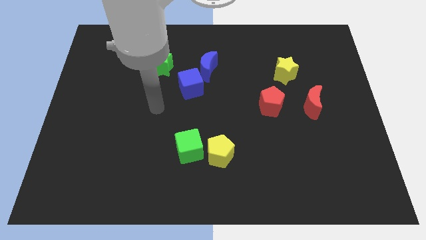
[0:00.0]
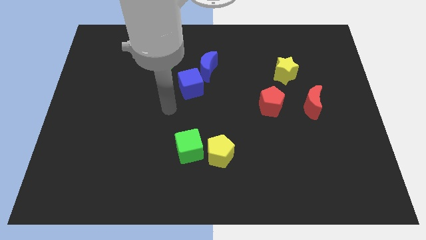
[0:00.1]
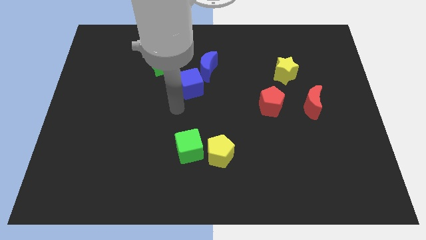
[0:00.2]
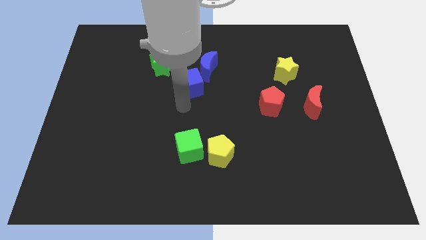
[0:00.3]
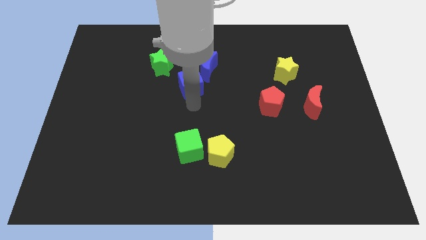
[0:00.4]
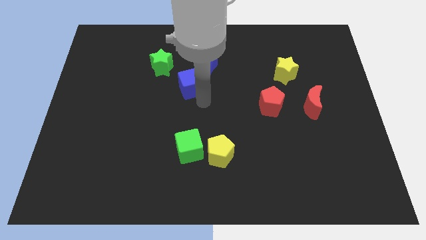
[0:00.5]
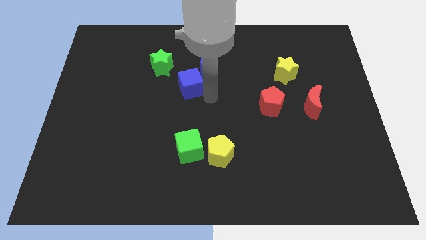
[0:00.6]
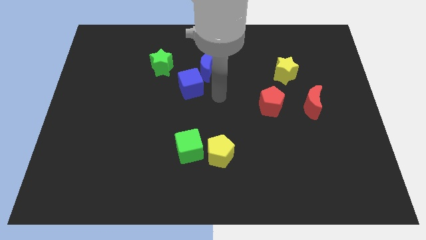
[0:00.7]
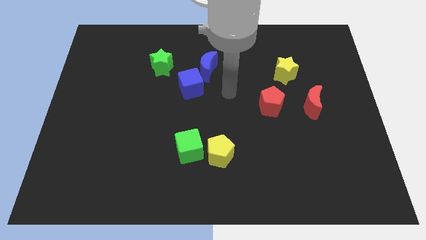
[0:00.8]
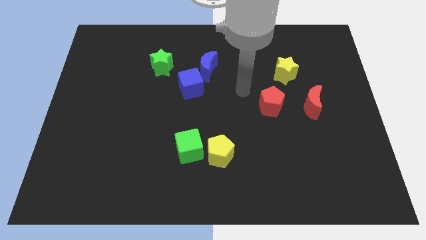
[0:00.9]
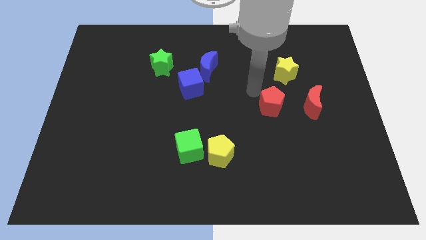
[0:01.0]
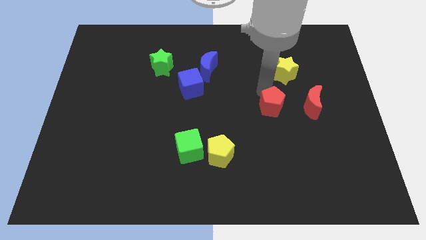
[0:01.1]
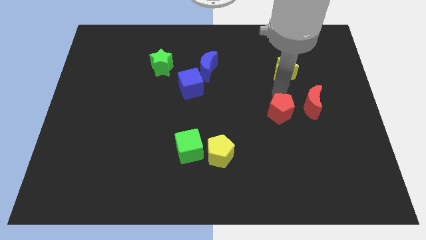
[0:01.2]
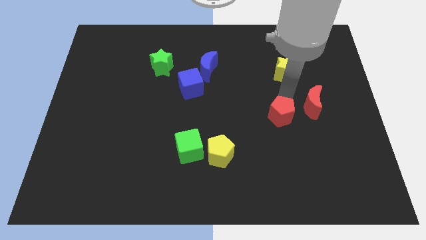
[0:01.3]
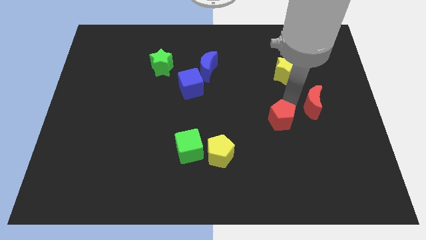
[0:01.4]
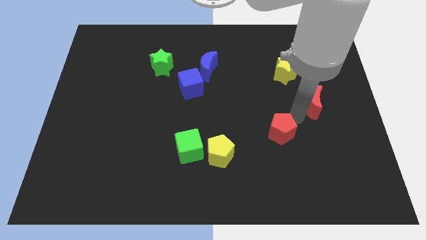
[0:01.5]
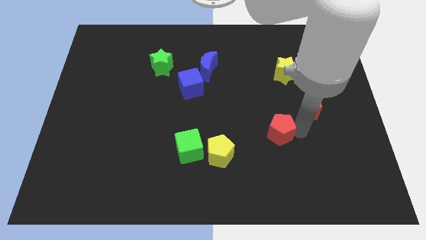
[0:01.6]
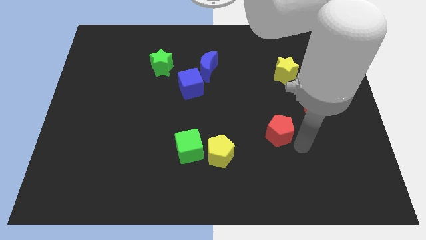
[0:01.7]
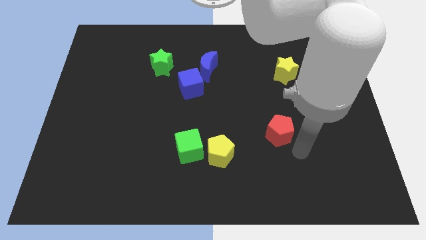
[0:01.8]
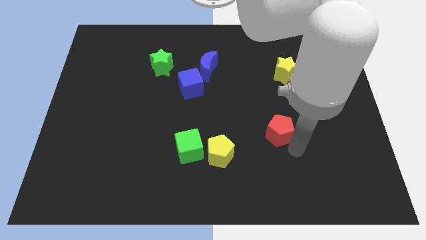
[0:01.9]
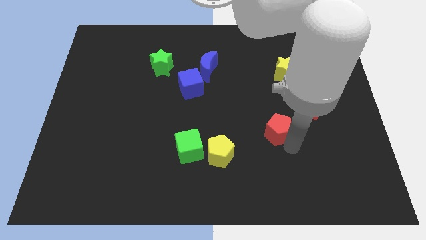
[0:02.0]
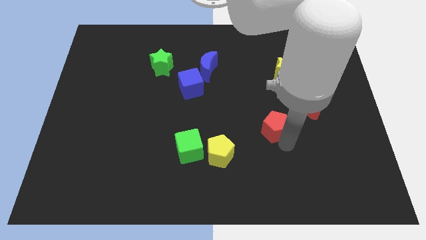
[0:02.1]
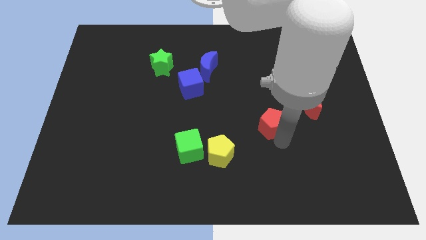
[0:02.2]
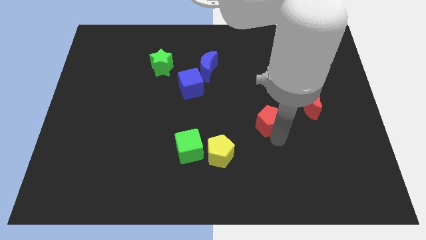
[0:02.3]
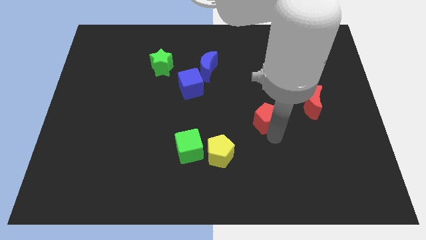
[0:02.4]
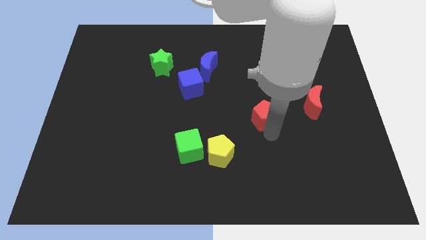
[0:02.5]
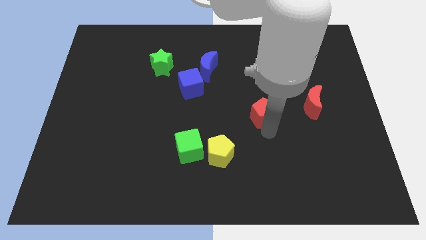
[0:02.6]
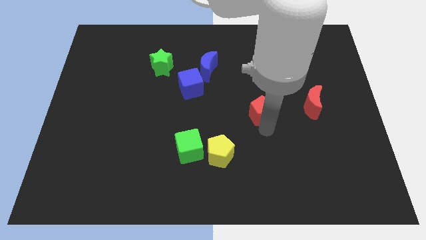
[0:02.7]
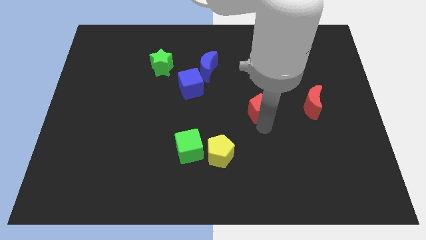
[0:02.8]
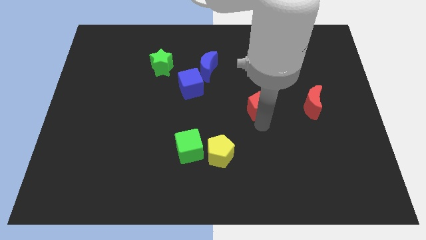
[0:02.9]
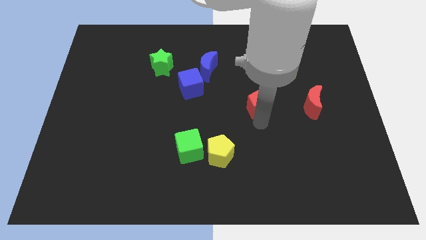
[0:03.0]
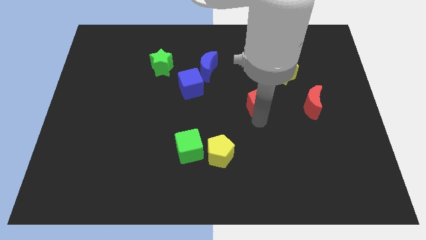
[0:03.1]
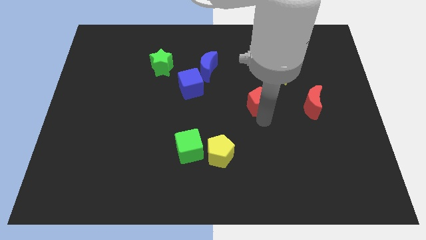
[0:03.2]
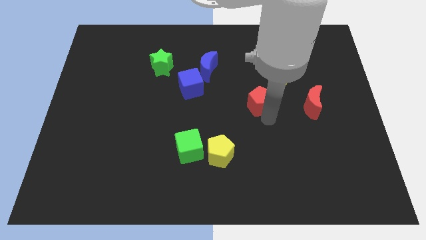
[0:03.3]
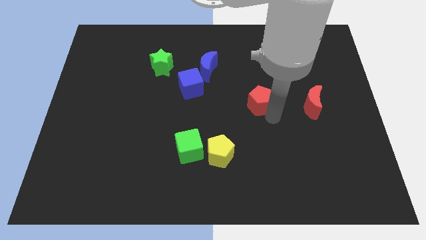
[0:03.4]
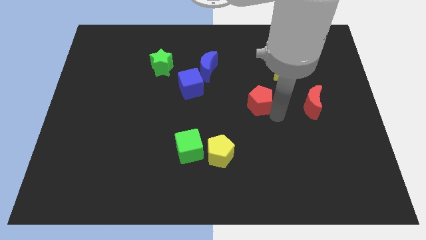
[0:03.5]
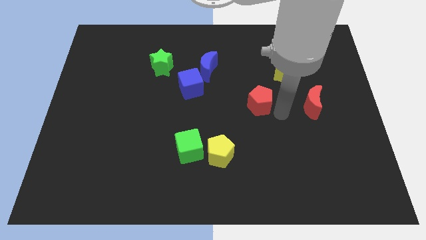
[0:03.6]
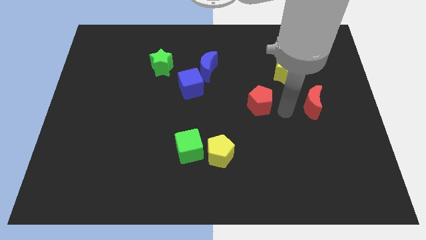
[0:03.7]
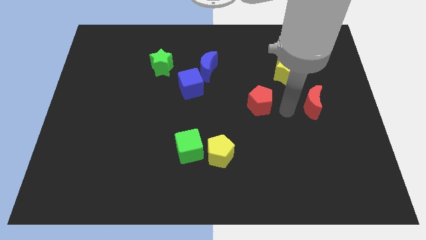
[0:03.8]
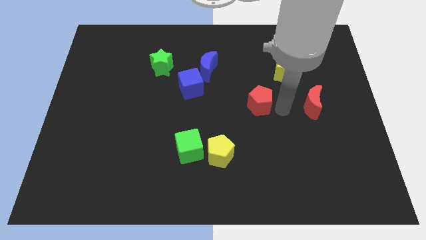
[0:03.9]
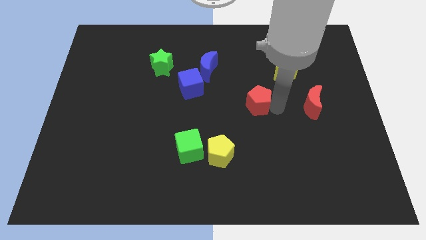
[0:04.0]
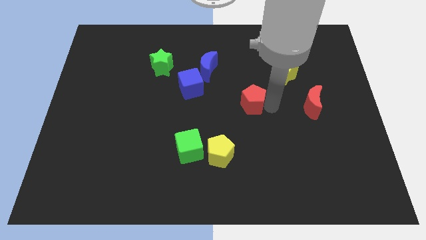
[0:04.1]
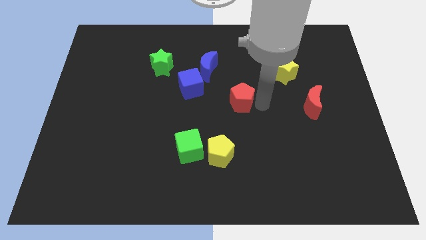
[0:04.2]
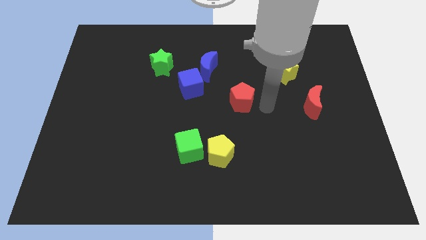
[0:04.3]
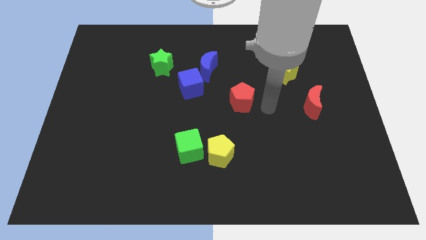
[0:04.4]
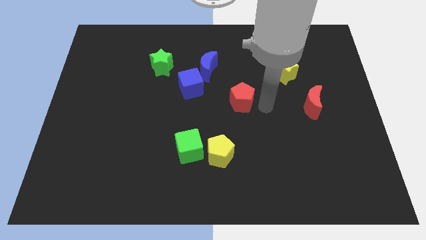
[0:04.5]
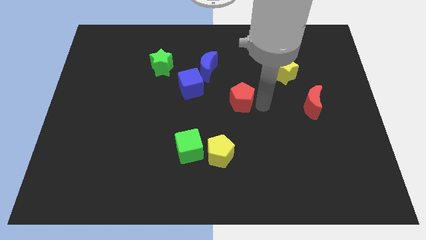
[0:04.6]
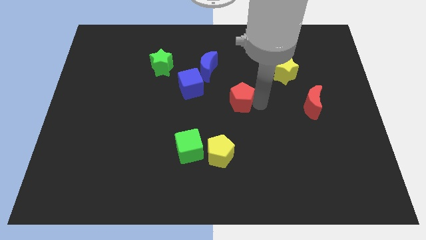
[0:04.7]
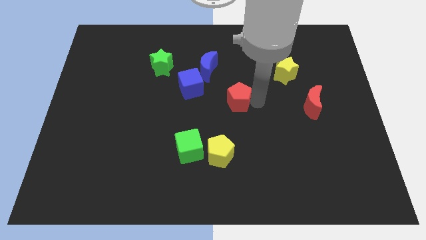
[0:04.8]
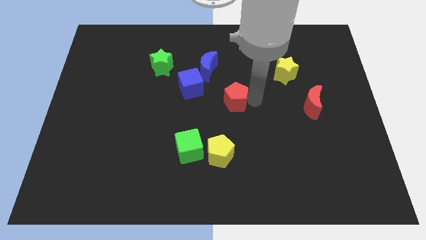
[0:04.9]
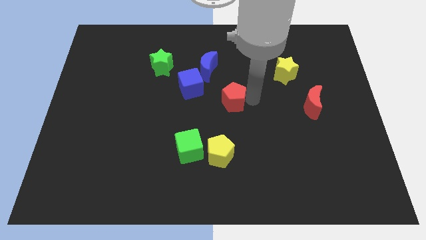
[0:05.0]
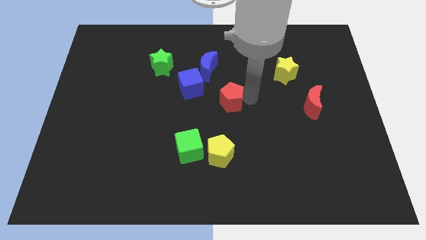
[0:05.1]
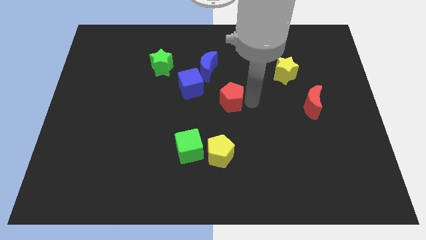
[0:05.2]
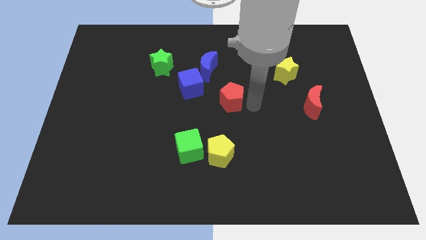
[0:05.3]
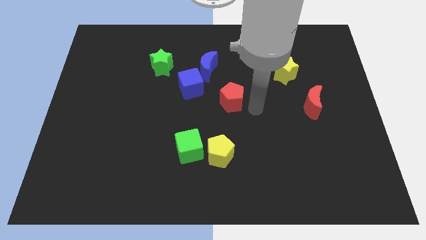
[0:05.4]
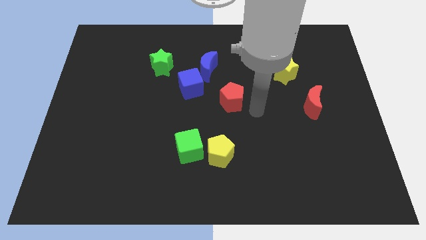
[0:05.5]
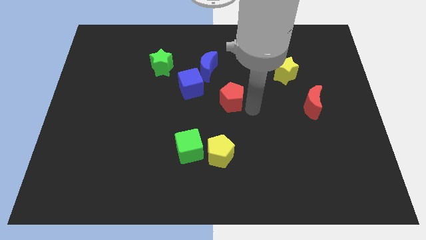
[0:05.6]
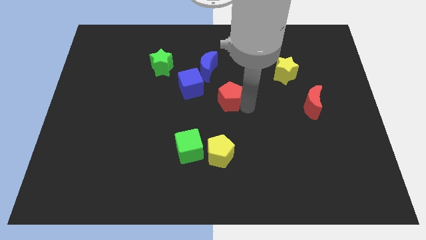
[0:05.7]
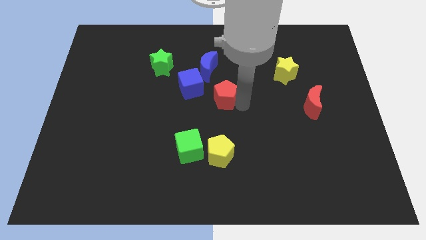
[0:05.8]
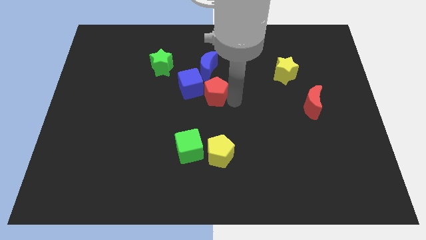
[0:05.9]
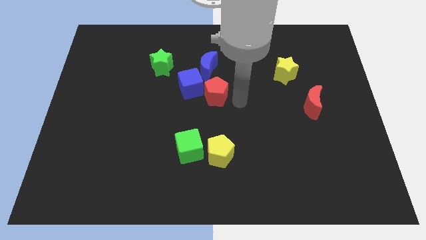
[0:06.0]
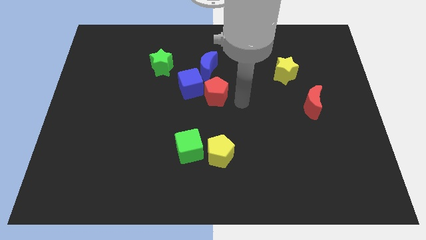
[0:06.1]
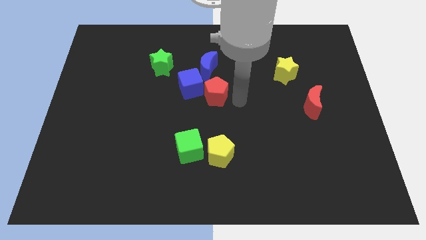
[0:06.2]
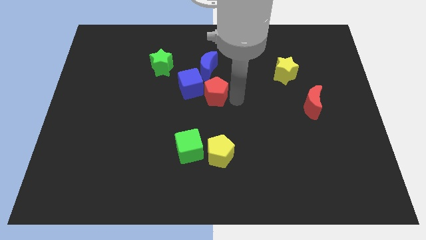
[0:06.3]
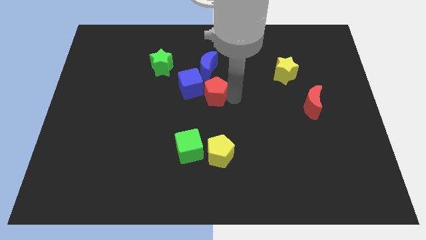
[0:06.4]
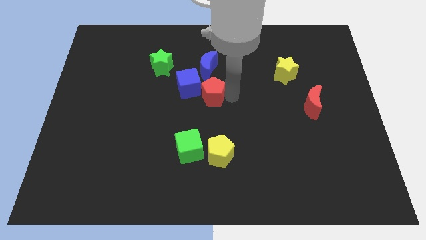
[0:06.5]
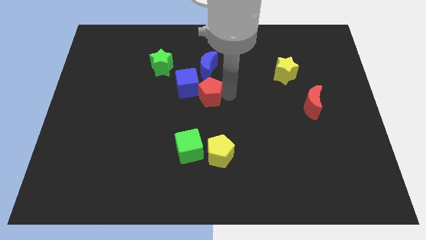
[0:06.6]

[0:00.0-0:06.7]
move the red pentagon close to the blue cube
